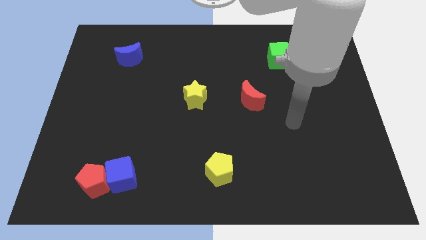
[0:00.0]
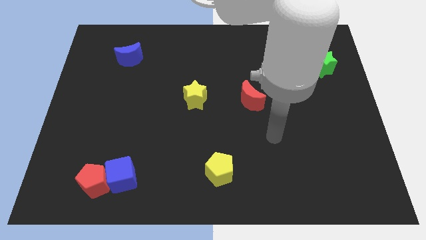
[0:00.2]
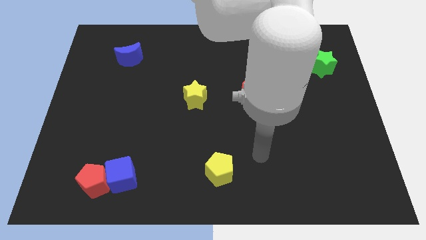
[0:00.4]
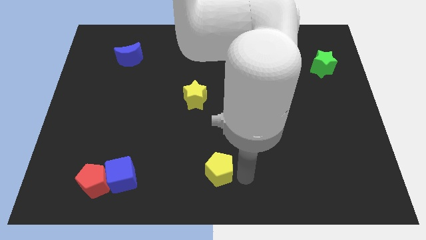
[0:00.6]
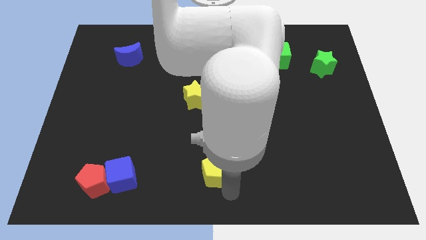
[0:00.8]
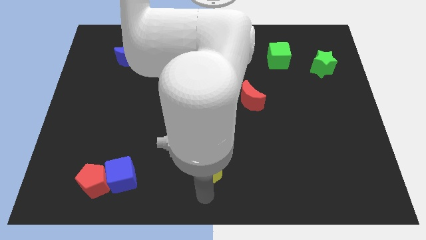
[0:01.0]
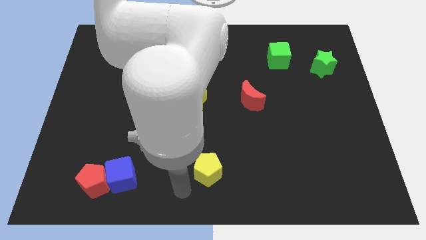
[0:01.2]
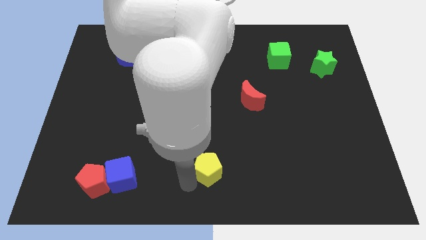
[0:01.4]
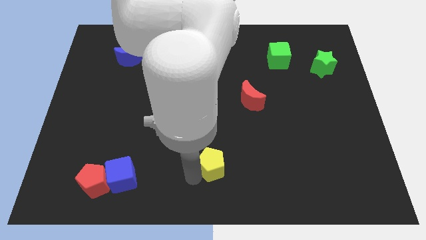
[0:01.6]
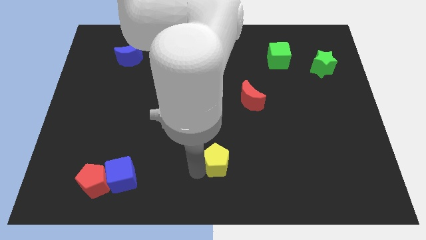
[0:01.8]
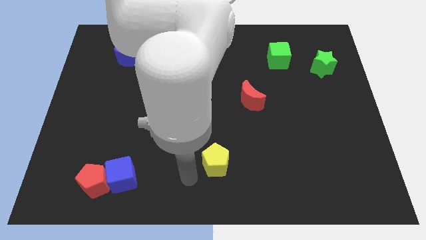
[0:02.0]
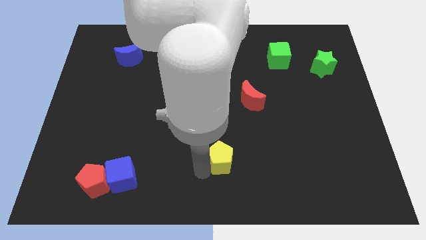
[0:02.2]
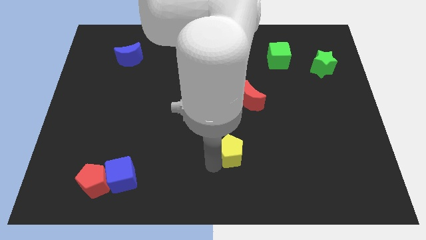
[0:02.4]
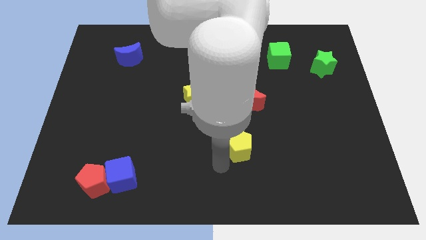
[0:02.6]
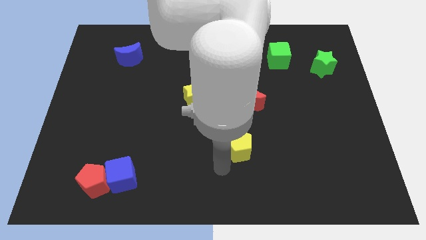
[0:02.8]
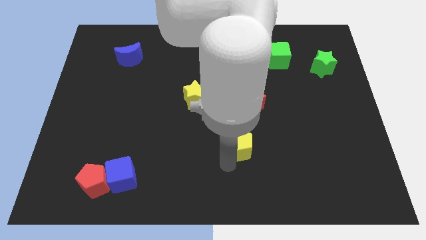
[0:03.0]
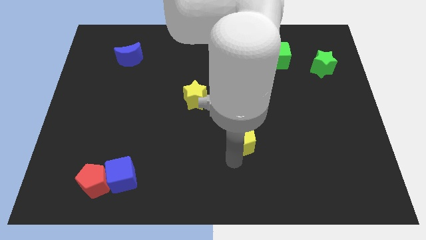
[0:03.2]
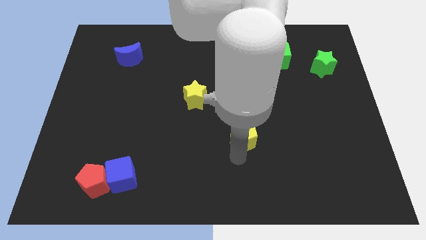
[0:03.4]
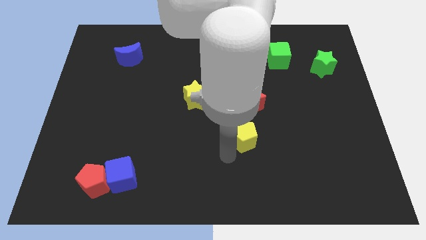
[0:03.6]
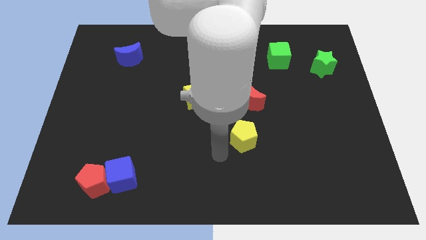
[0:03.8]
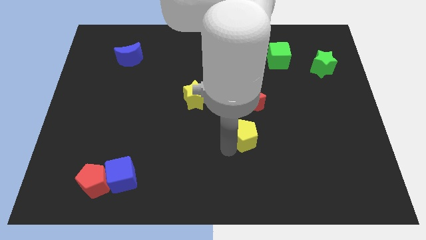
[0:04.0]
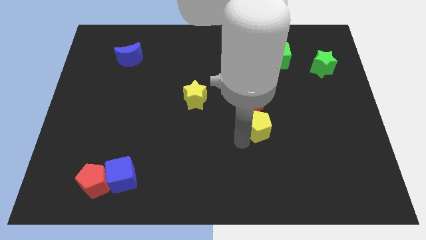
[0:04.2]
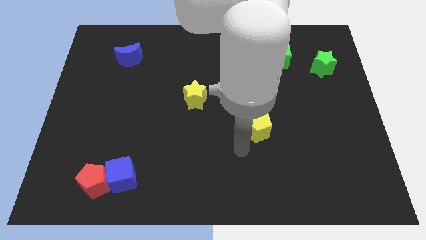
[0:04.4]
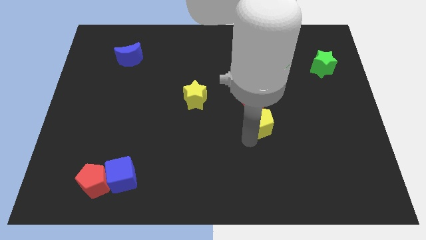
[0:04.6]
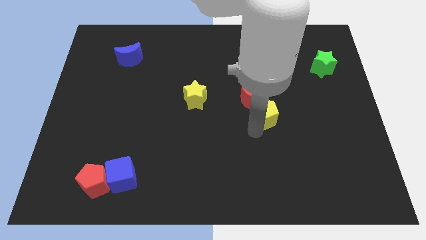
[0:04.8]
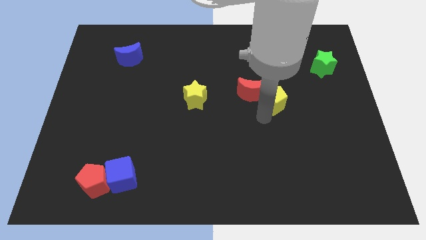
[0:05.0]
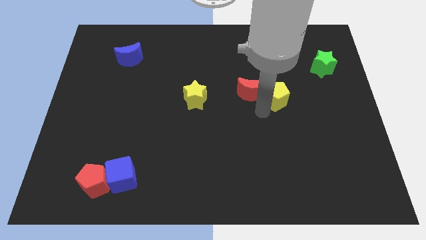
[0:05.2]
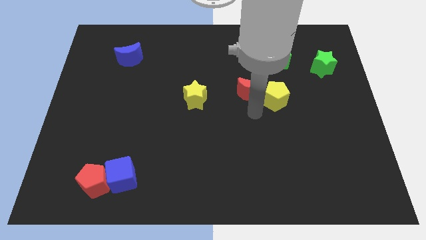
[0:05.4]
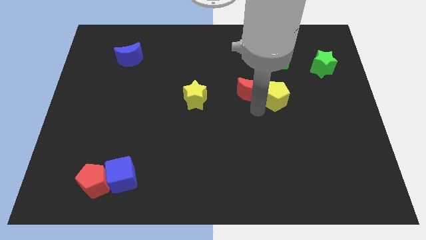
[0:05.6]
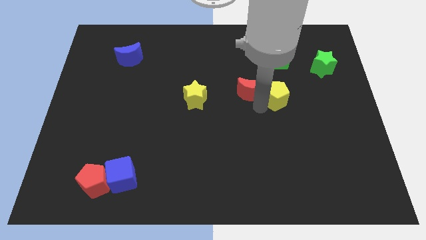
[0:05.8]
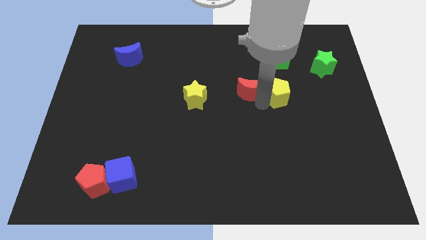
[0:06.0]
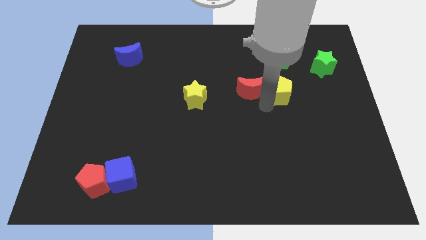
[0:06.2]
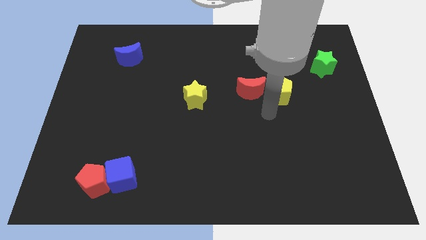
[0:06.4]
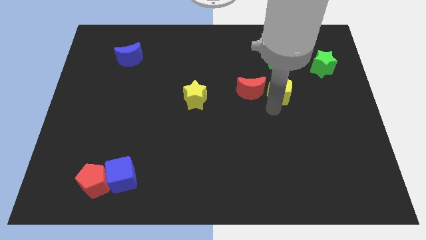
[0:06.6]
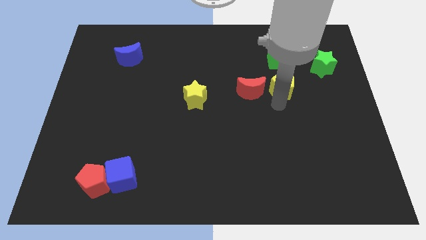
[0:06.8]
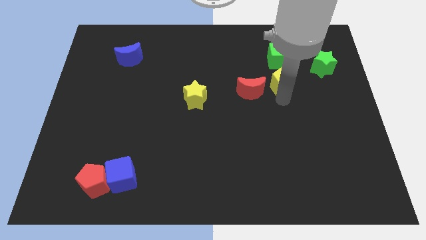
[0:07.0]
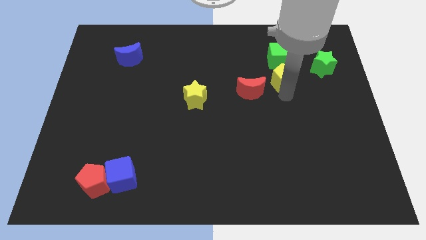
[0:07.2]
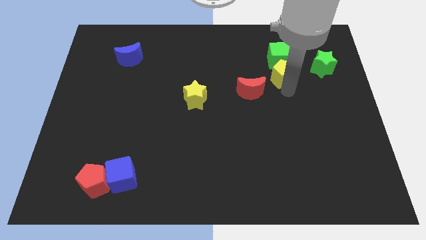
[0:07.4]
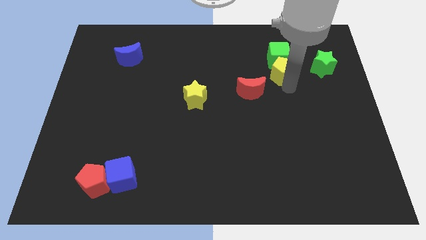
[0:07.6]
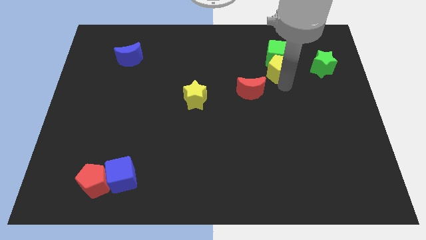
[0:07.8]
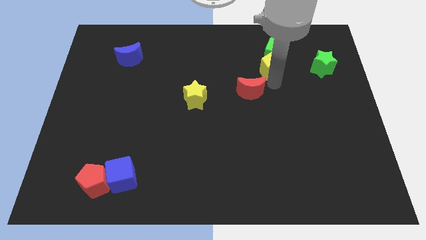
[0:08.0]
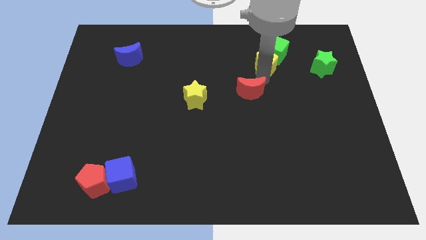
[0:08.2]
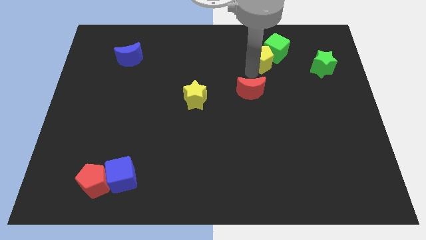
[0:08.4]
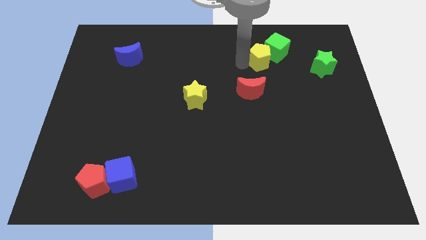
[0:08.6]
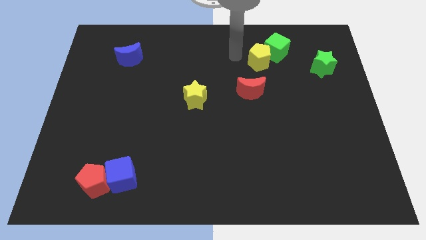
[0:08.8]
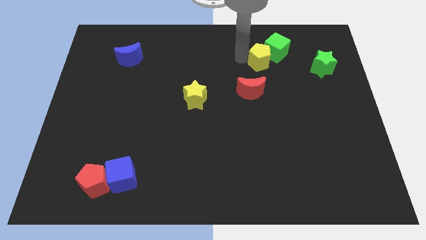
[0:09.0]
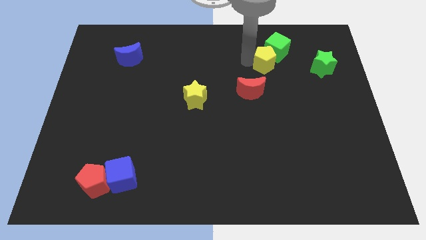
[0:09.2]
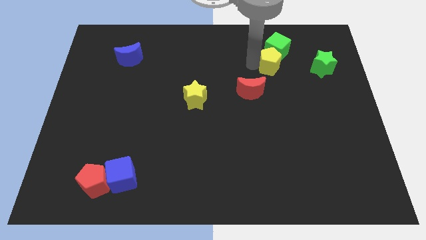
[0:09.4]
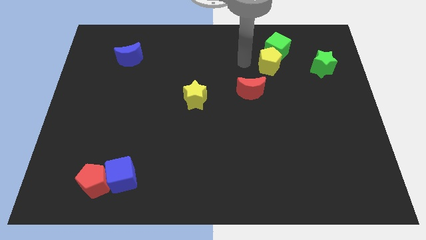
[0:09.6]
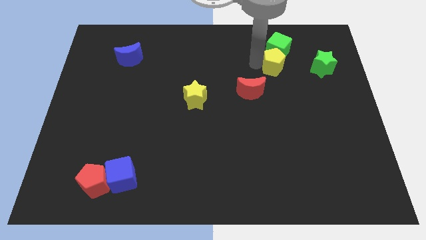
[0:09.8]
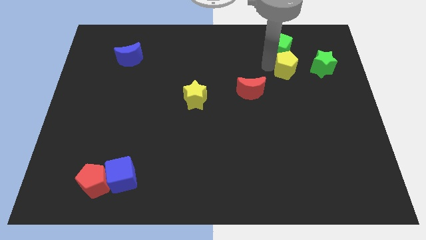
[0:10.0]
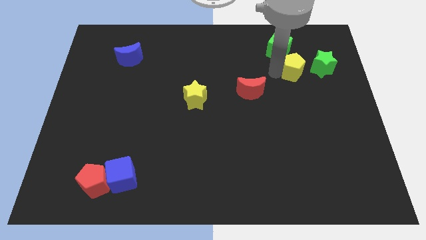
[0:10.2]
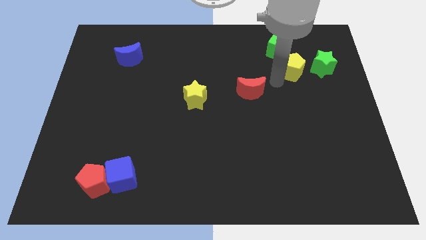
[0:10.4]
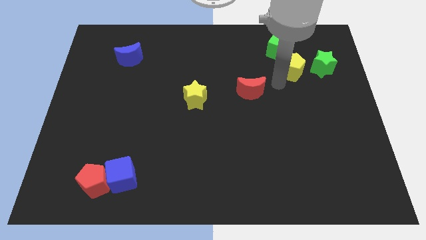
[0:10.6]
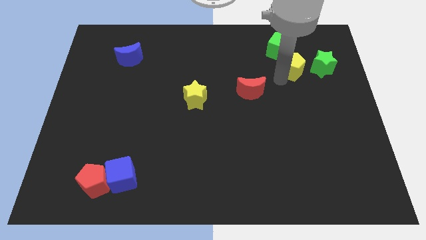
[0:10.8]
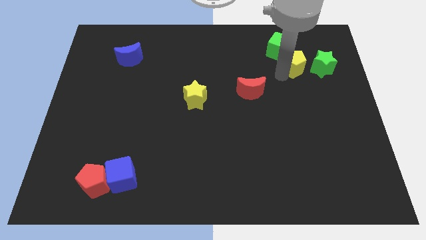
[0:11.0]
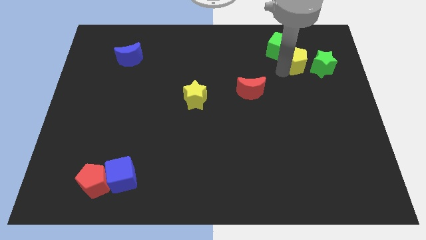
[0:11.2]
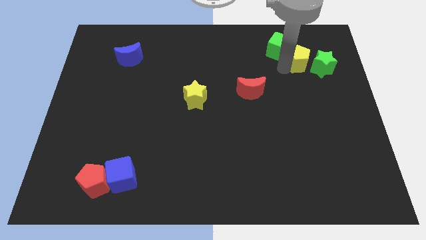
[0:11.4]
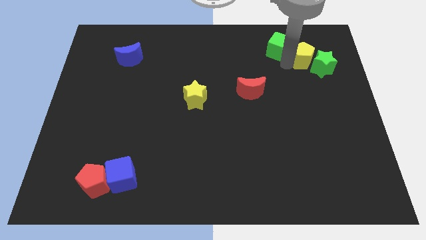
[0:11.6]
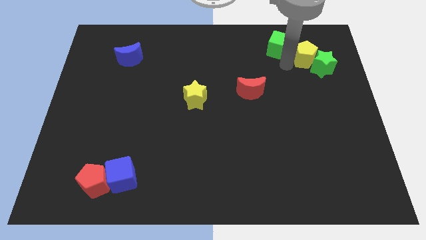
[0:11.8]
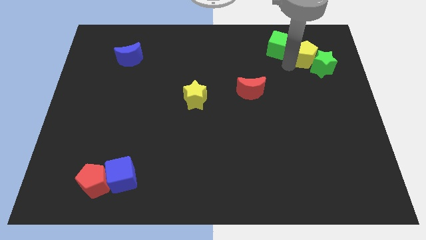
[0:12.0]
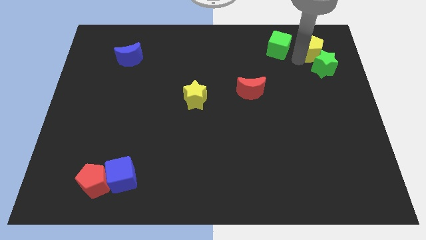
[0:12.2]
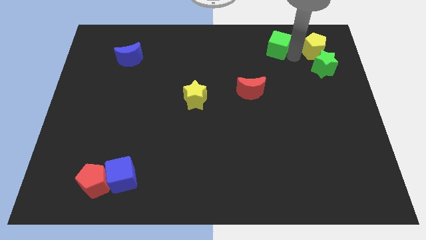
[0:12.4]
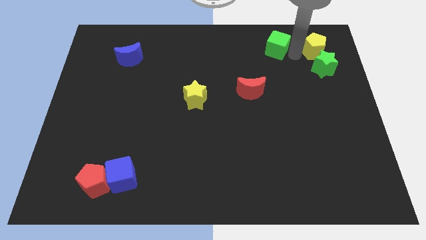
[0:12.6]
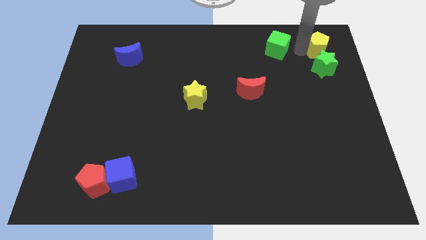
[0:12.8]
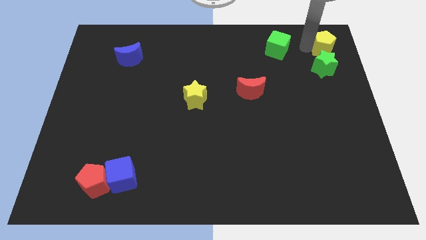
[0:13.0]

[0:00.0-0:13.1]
slide the yellow pentagon to the upper right corner
